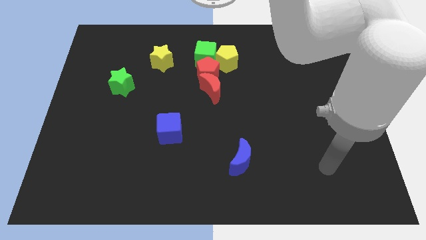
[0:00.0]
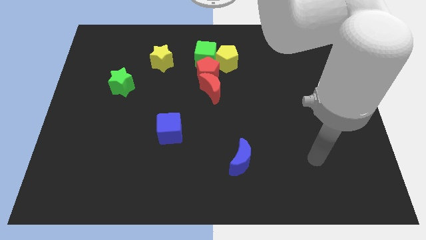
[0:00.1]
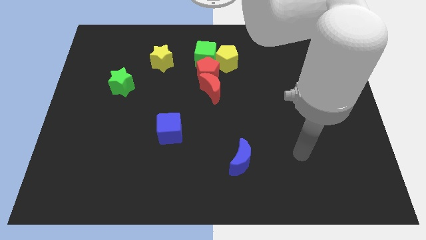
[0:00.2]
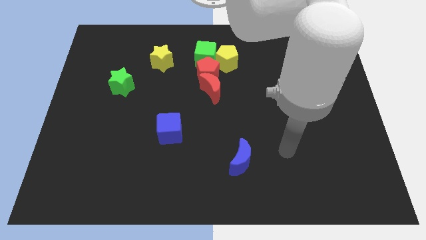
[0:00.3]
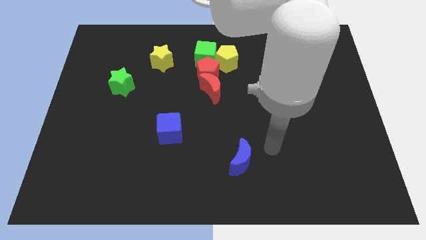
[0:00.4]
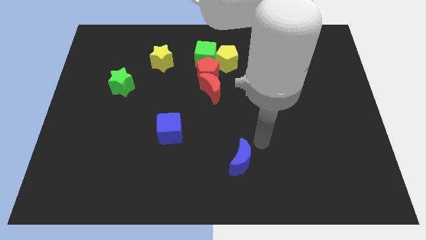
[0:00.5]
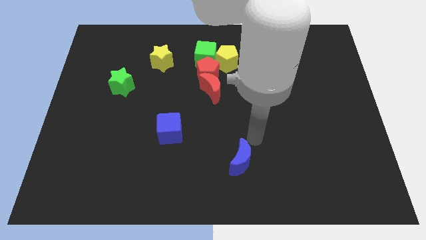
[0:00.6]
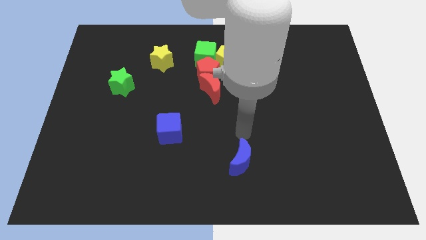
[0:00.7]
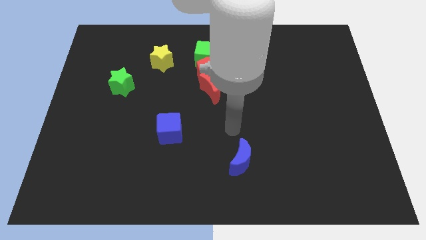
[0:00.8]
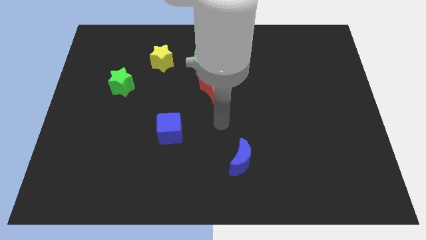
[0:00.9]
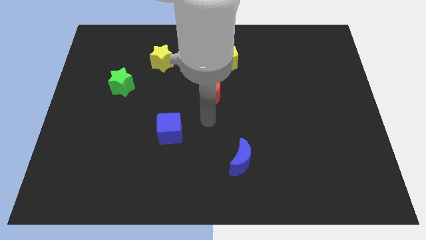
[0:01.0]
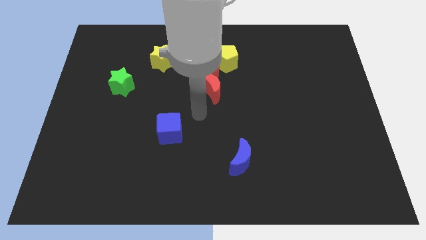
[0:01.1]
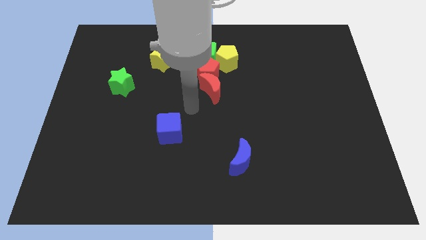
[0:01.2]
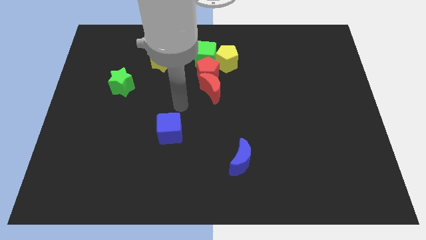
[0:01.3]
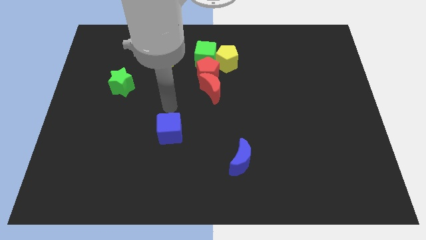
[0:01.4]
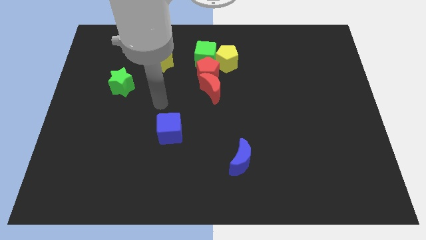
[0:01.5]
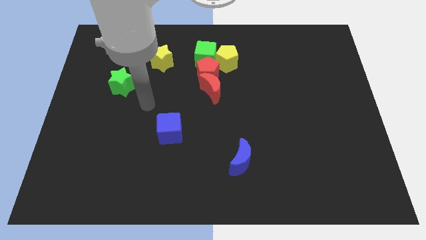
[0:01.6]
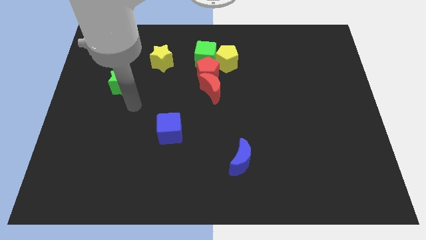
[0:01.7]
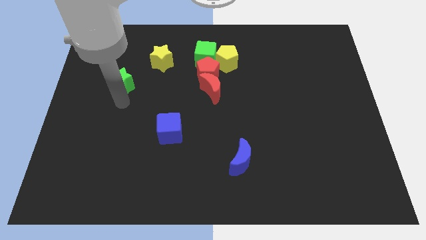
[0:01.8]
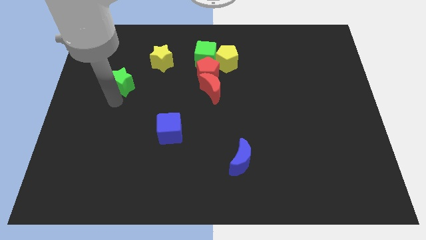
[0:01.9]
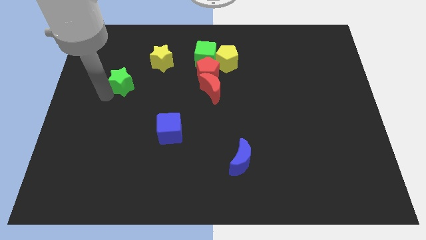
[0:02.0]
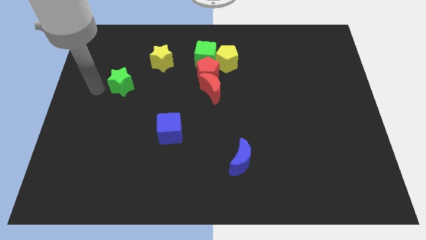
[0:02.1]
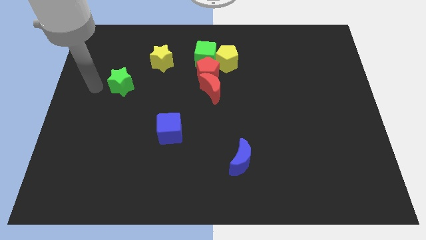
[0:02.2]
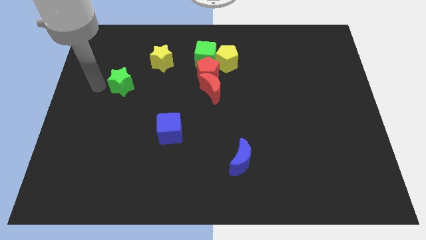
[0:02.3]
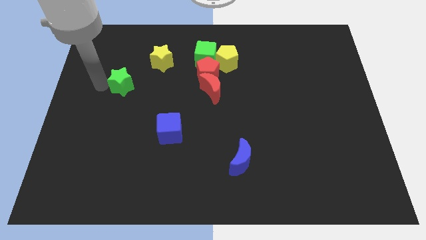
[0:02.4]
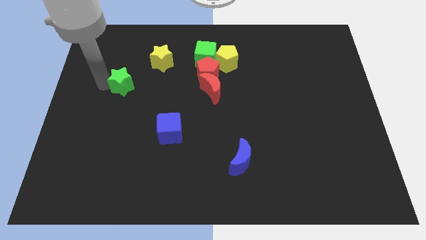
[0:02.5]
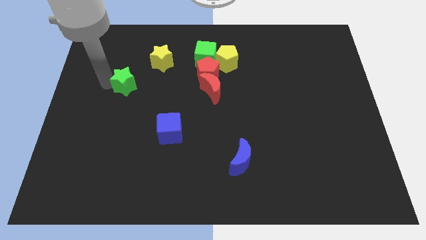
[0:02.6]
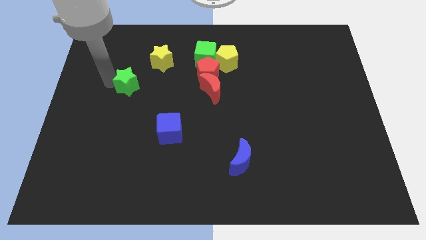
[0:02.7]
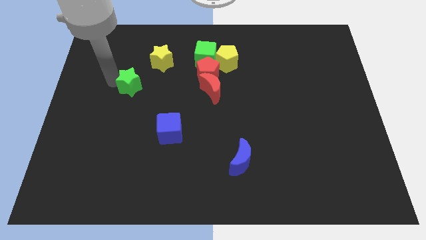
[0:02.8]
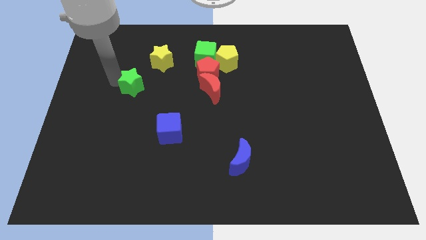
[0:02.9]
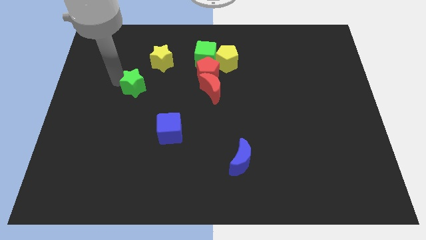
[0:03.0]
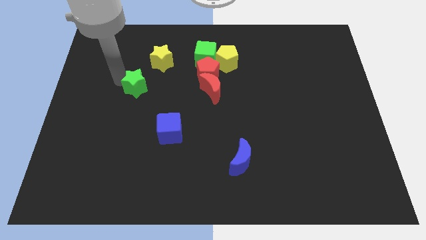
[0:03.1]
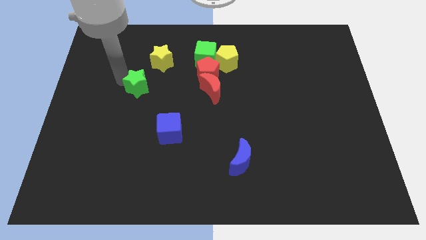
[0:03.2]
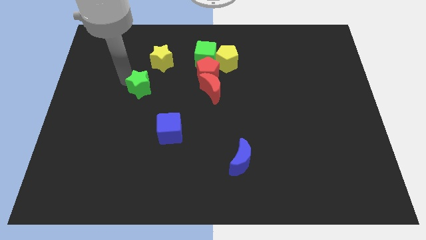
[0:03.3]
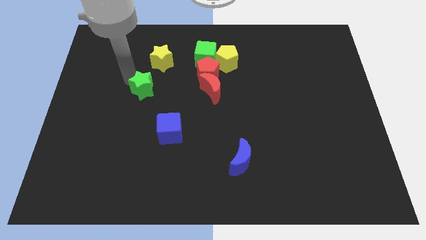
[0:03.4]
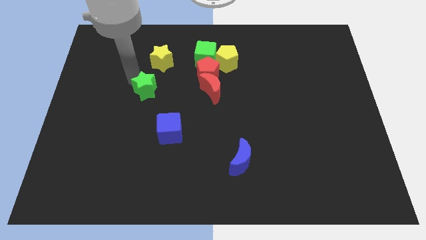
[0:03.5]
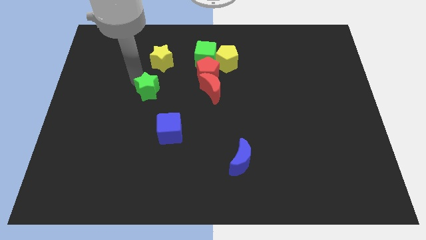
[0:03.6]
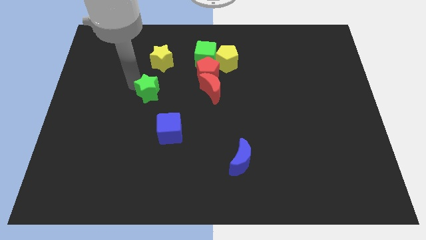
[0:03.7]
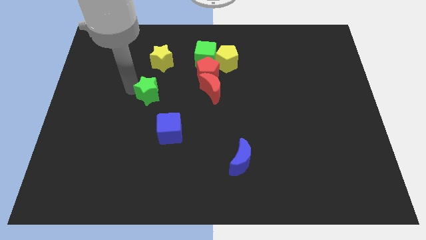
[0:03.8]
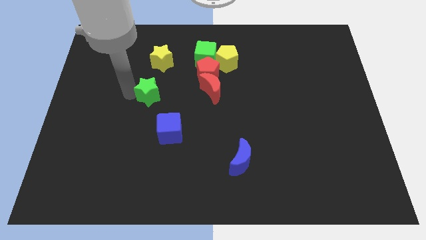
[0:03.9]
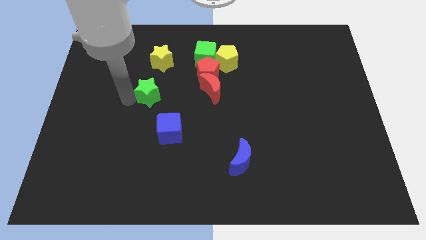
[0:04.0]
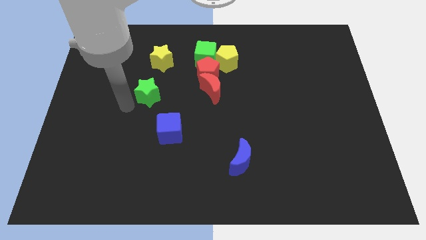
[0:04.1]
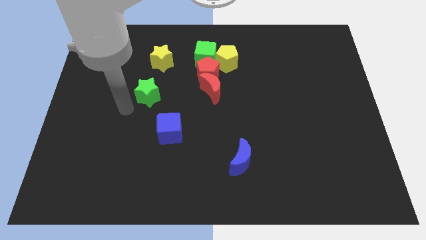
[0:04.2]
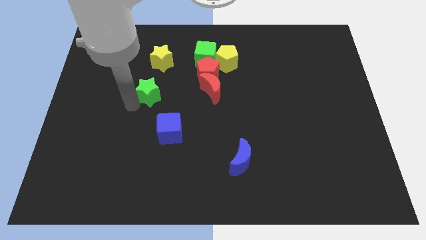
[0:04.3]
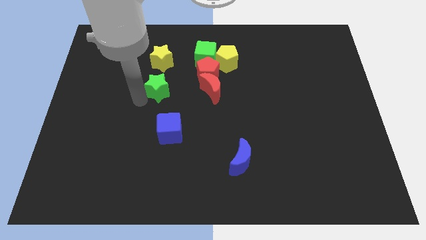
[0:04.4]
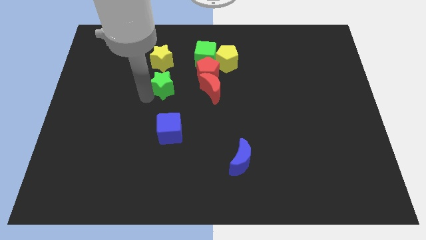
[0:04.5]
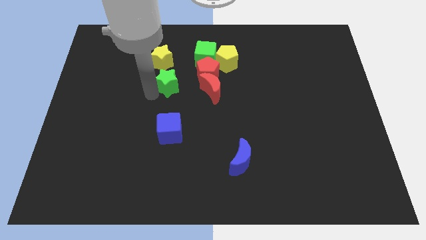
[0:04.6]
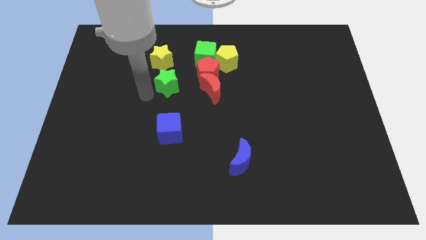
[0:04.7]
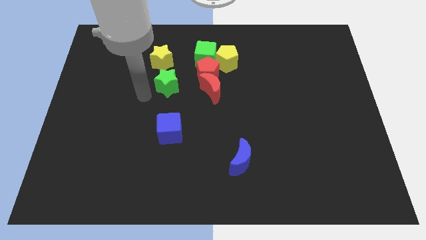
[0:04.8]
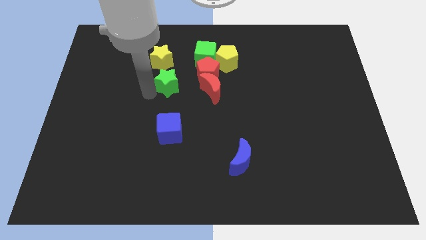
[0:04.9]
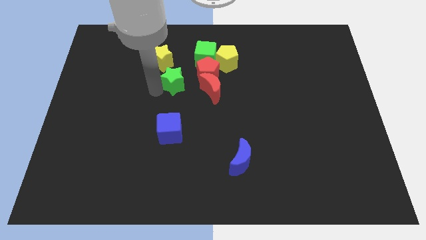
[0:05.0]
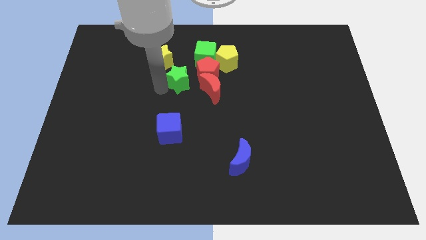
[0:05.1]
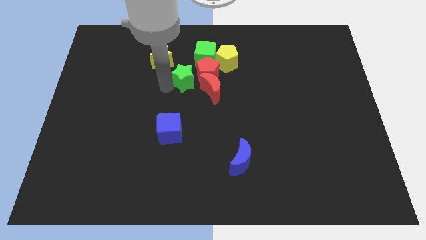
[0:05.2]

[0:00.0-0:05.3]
put the green star close to the red pentagon

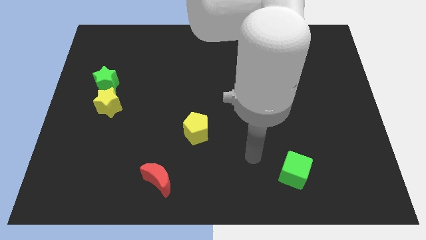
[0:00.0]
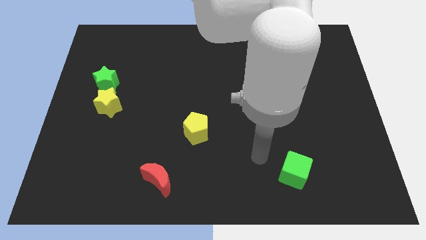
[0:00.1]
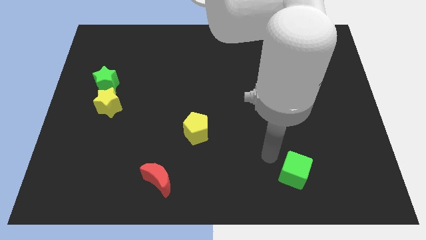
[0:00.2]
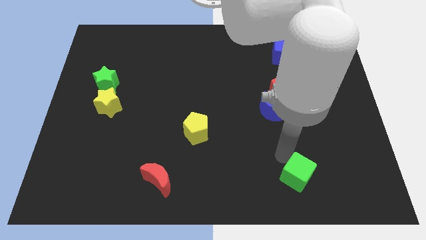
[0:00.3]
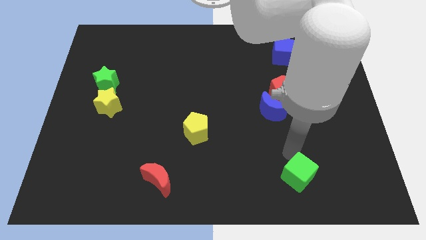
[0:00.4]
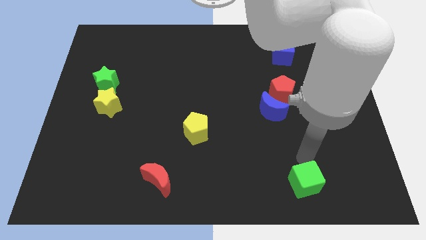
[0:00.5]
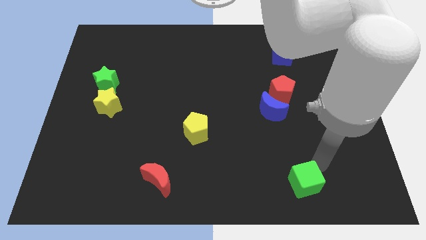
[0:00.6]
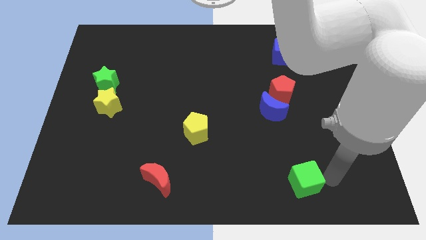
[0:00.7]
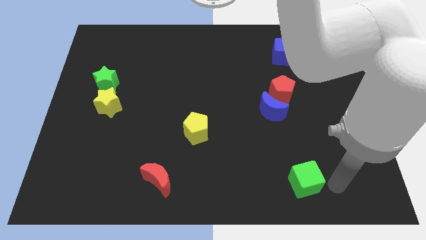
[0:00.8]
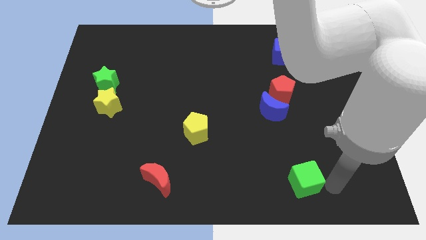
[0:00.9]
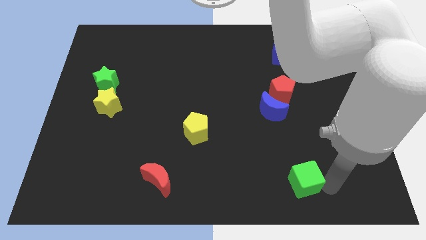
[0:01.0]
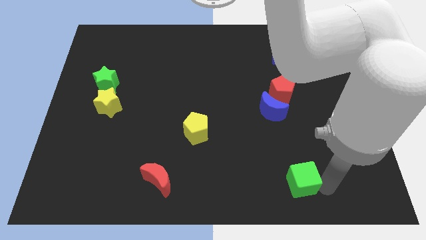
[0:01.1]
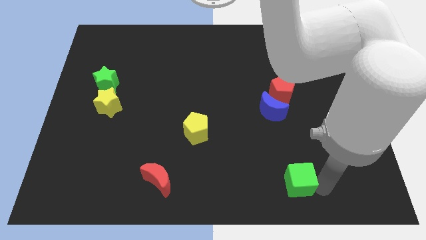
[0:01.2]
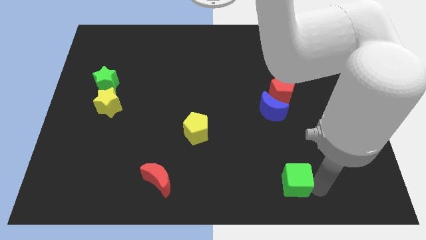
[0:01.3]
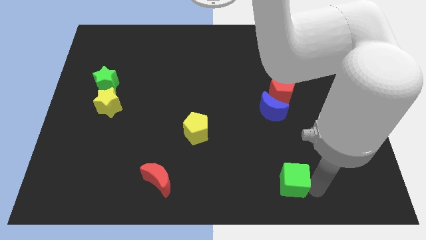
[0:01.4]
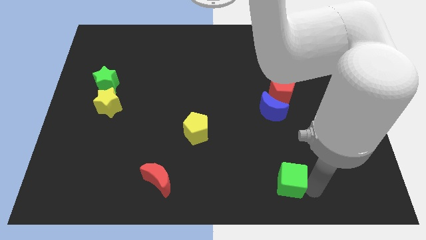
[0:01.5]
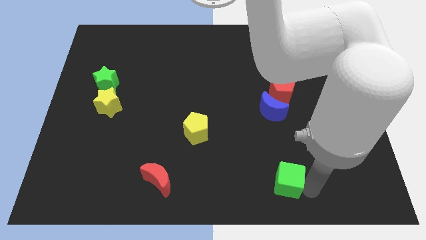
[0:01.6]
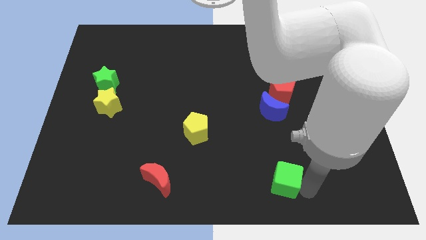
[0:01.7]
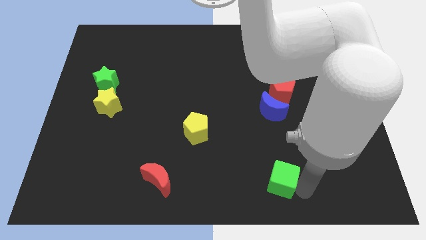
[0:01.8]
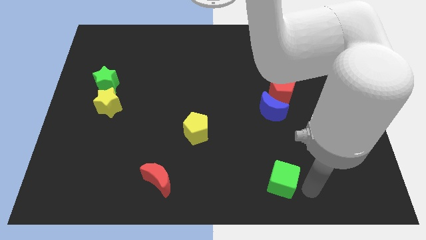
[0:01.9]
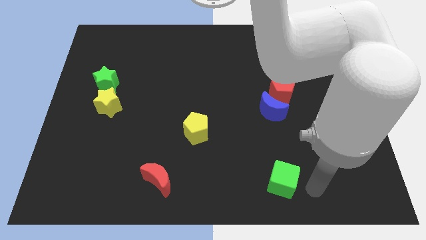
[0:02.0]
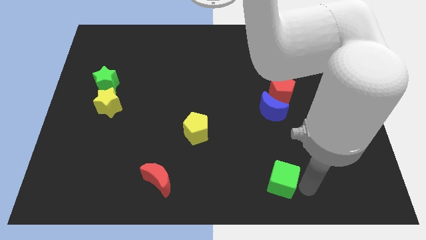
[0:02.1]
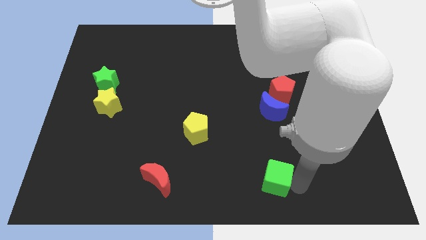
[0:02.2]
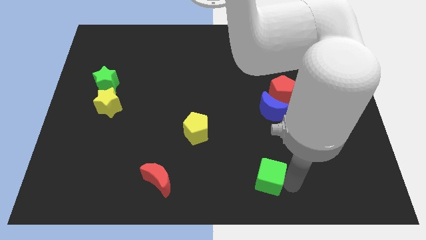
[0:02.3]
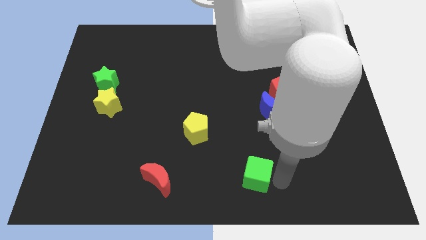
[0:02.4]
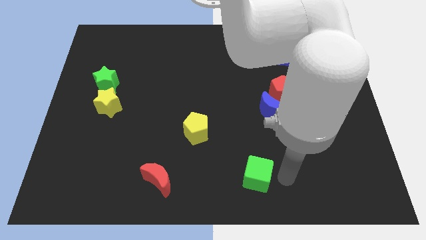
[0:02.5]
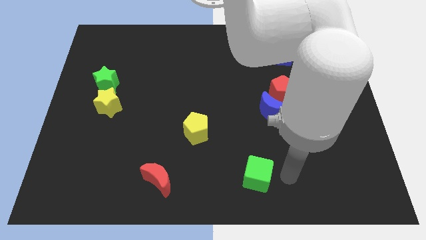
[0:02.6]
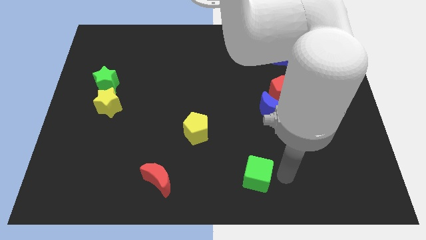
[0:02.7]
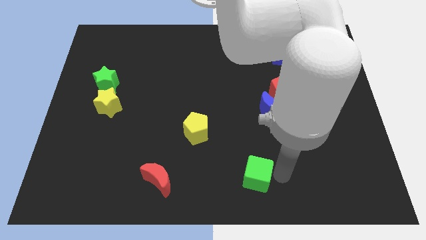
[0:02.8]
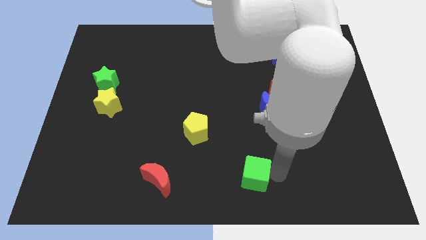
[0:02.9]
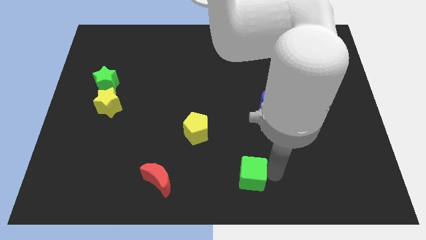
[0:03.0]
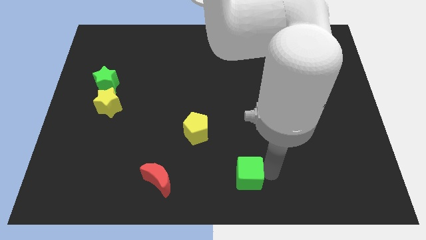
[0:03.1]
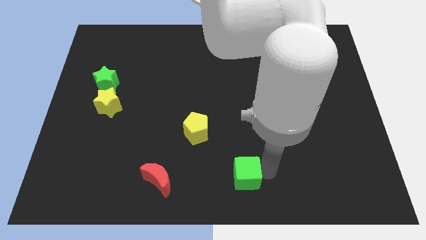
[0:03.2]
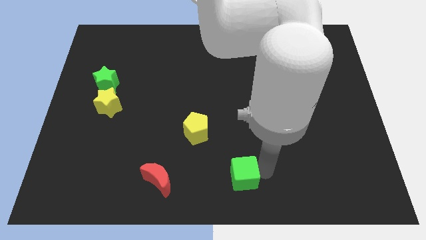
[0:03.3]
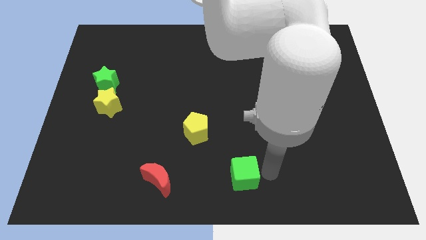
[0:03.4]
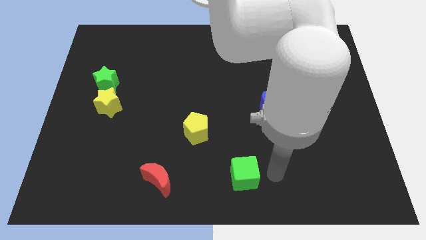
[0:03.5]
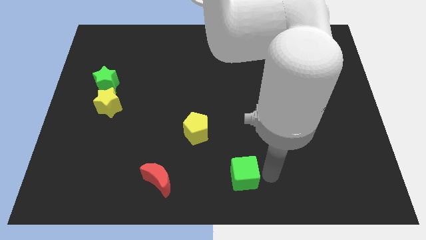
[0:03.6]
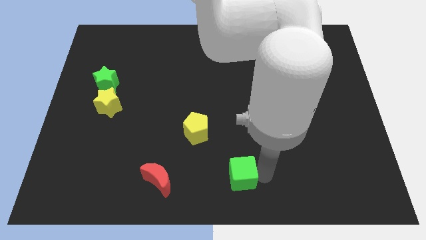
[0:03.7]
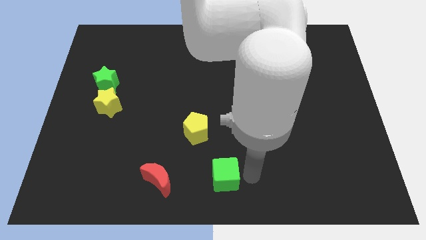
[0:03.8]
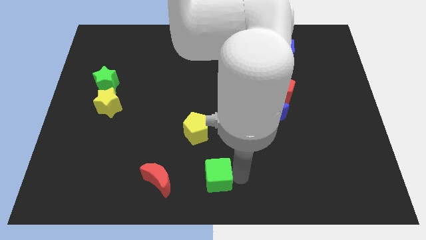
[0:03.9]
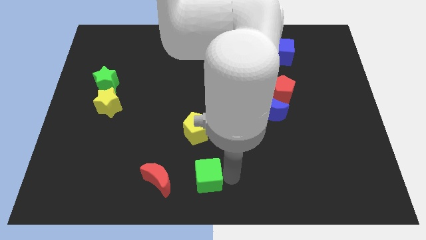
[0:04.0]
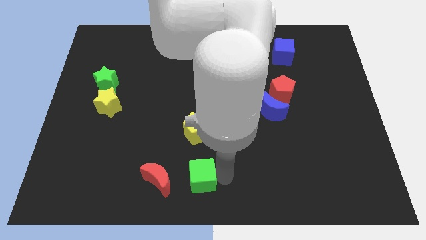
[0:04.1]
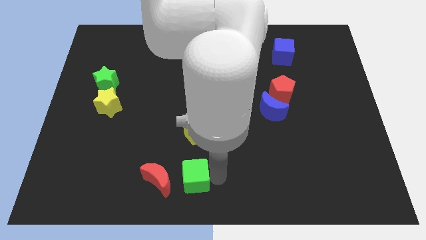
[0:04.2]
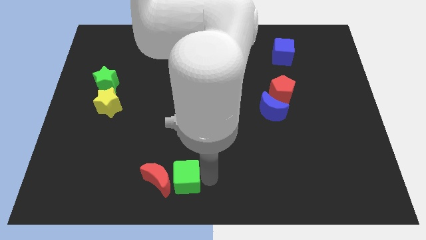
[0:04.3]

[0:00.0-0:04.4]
put the green cube next to the red moon
